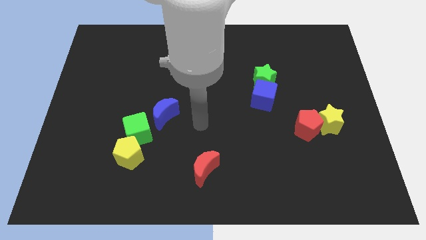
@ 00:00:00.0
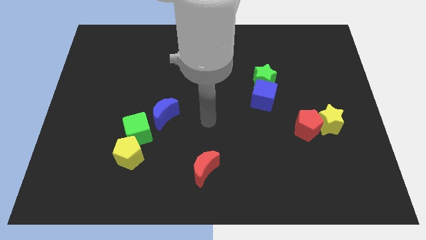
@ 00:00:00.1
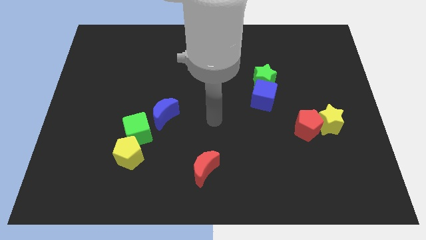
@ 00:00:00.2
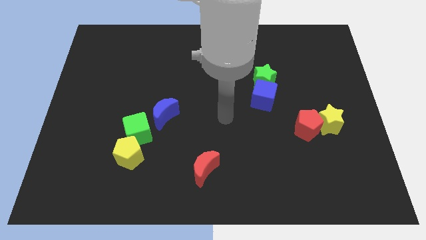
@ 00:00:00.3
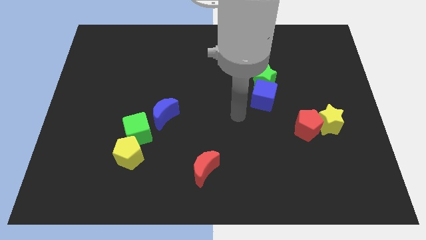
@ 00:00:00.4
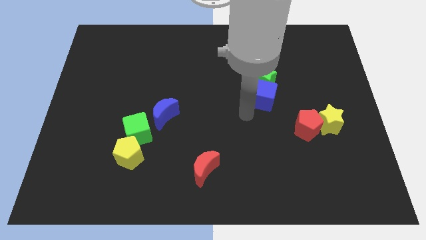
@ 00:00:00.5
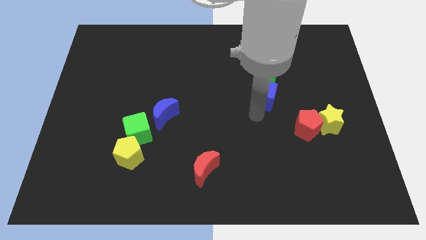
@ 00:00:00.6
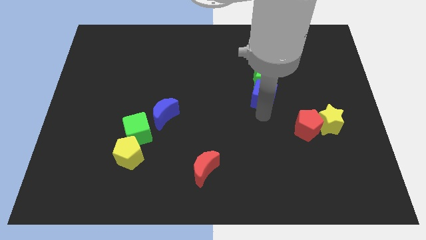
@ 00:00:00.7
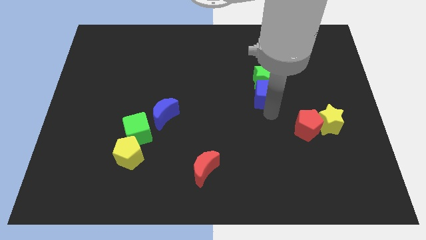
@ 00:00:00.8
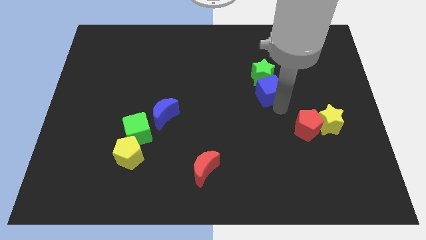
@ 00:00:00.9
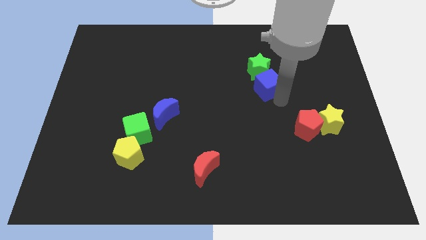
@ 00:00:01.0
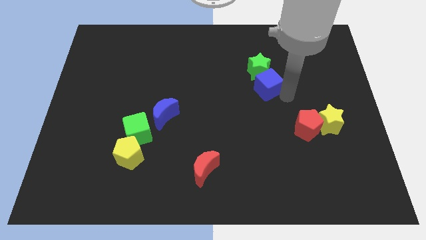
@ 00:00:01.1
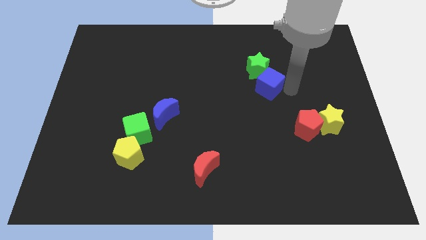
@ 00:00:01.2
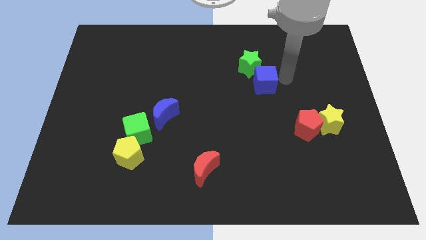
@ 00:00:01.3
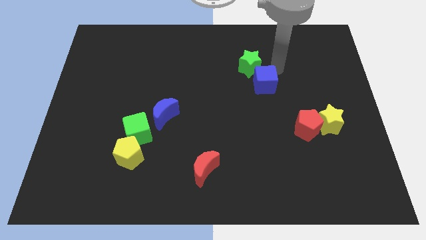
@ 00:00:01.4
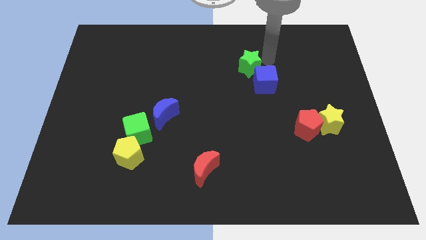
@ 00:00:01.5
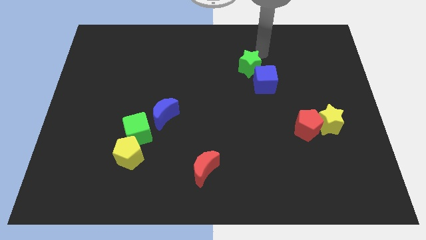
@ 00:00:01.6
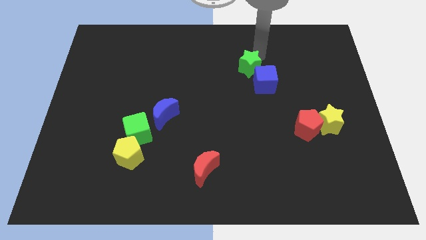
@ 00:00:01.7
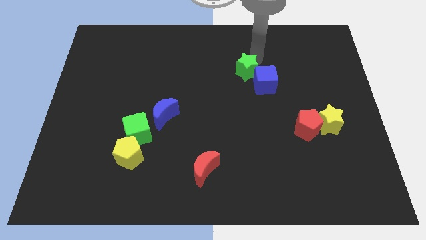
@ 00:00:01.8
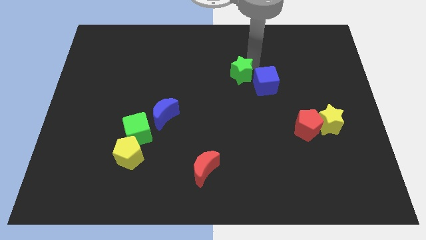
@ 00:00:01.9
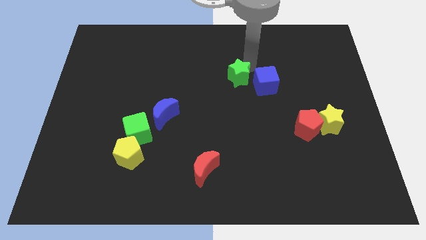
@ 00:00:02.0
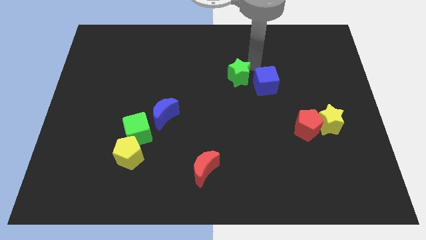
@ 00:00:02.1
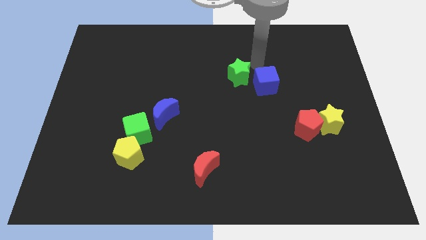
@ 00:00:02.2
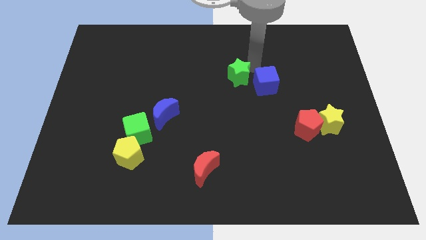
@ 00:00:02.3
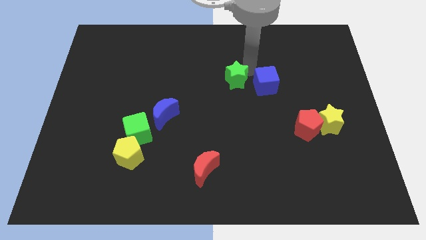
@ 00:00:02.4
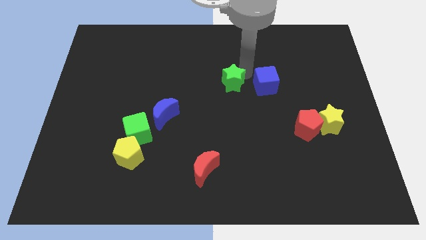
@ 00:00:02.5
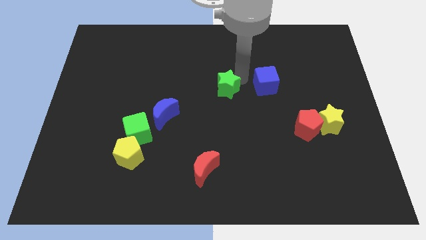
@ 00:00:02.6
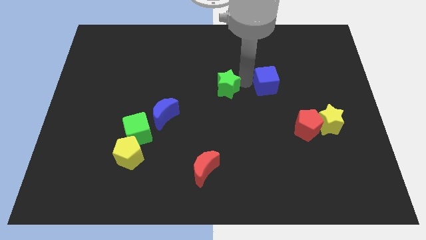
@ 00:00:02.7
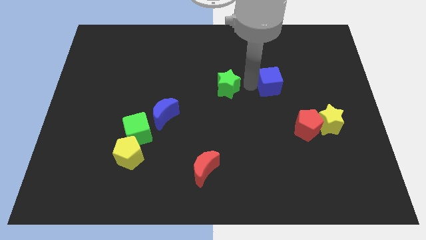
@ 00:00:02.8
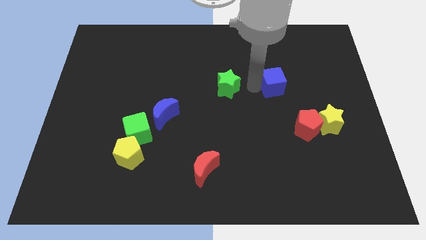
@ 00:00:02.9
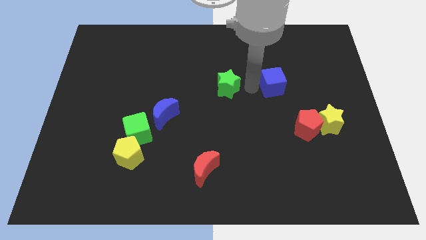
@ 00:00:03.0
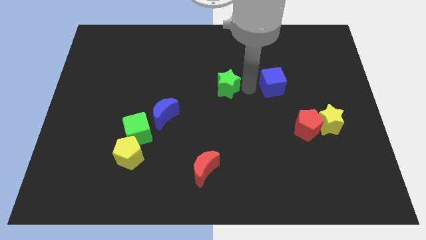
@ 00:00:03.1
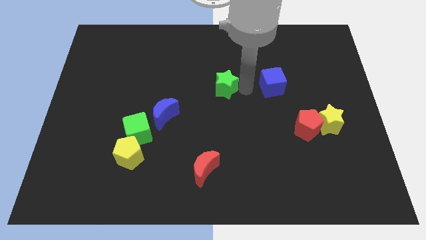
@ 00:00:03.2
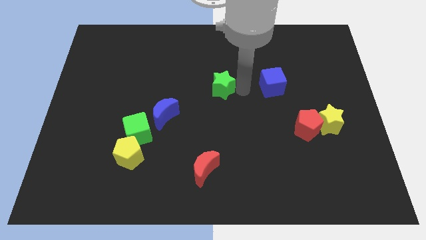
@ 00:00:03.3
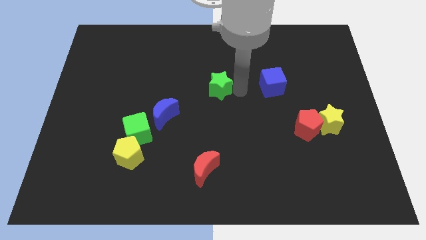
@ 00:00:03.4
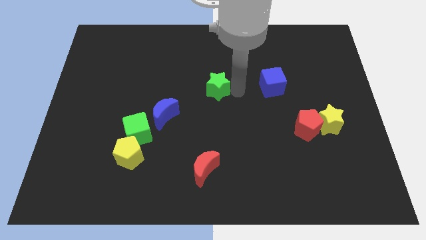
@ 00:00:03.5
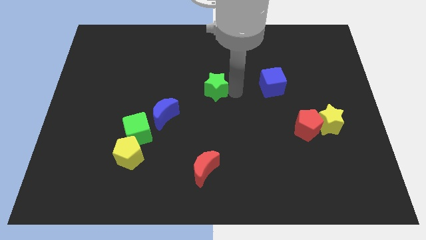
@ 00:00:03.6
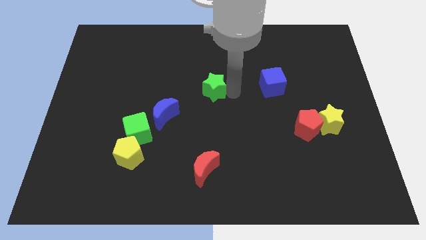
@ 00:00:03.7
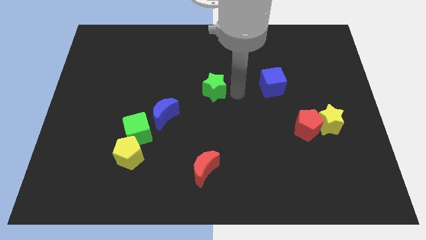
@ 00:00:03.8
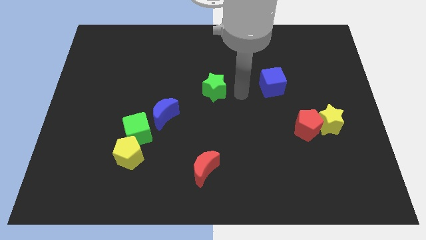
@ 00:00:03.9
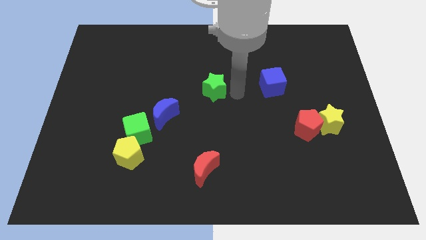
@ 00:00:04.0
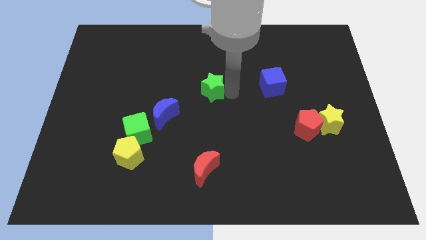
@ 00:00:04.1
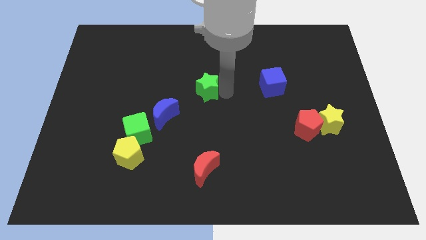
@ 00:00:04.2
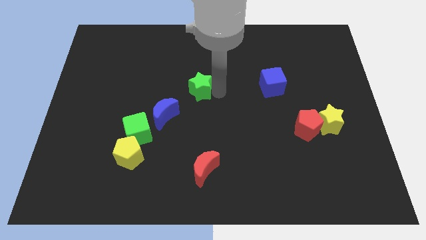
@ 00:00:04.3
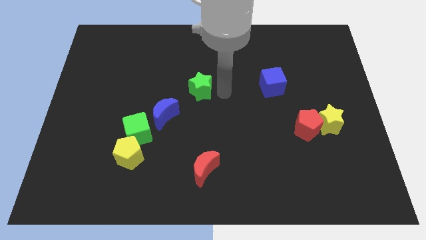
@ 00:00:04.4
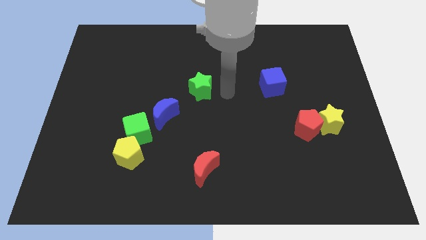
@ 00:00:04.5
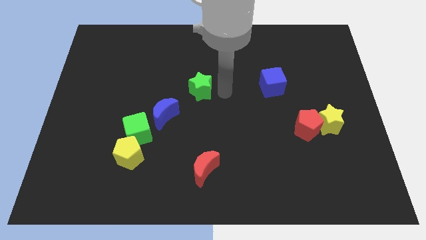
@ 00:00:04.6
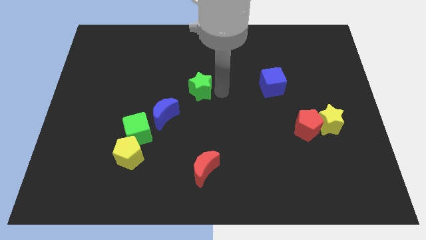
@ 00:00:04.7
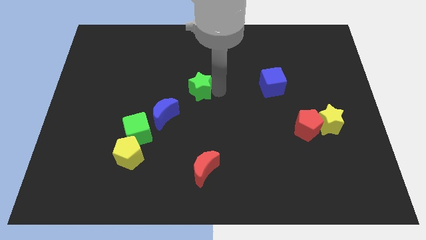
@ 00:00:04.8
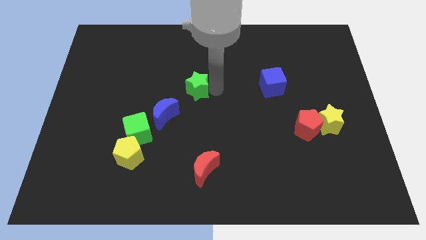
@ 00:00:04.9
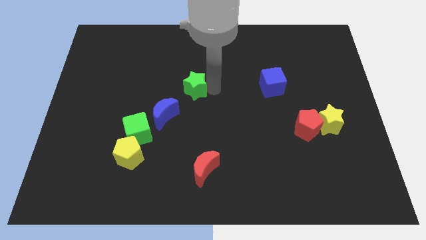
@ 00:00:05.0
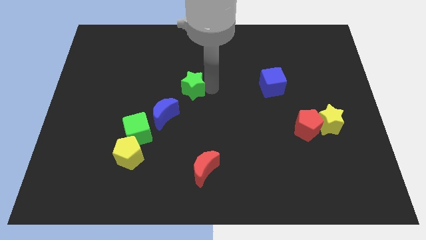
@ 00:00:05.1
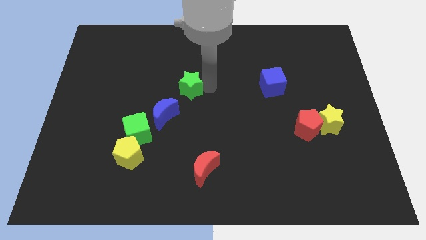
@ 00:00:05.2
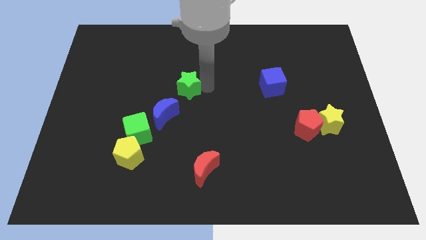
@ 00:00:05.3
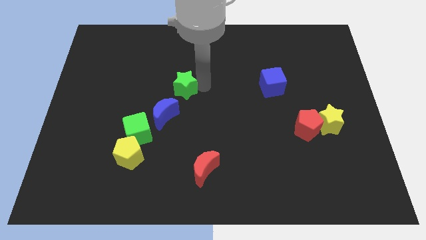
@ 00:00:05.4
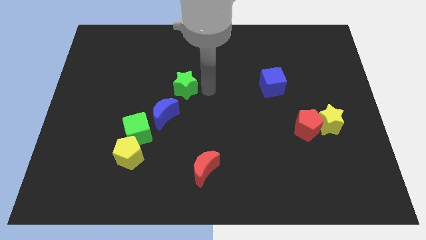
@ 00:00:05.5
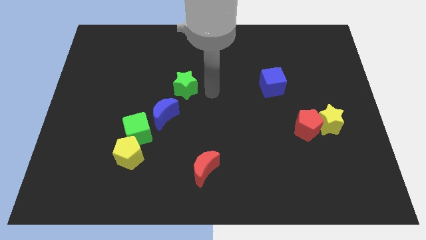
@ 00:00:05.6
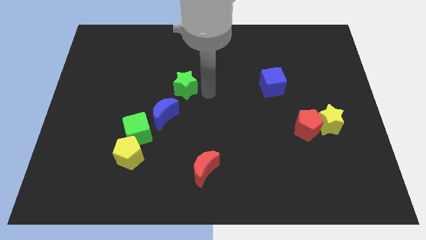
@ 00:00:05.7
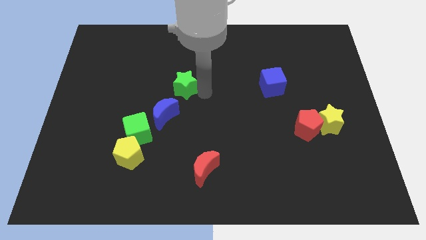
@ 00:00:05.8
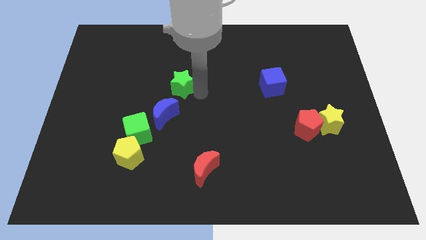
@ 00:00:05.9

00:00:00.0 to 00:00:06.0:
move the green star to the left

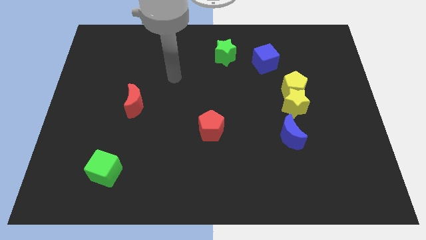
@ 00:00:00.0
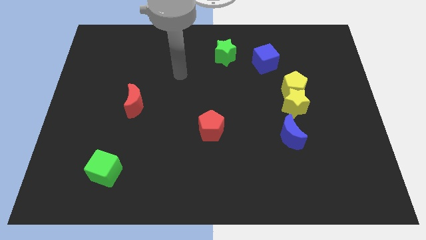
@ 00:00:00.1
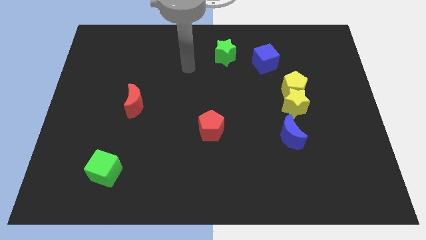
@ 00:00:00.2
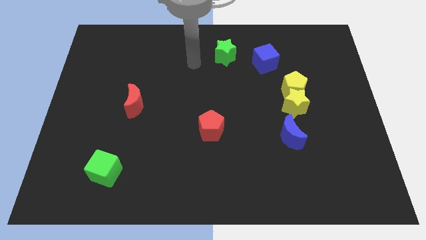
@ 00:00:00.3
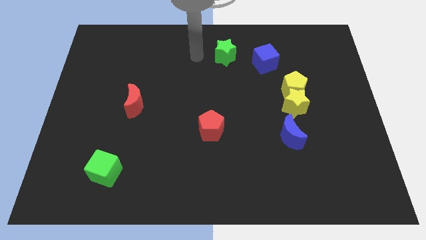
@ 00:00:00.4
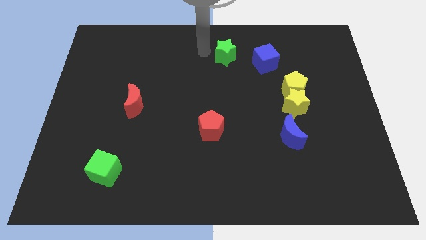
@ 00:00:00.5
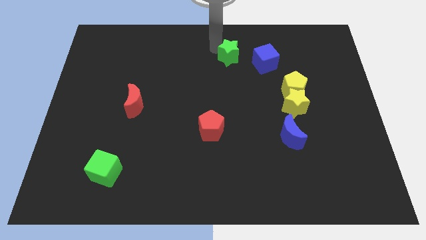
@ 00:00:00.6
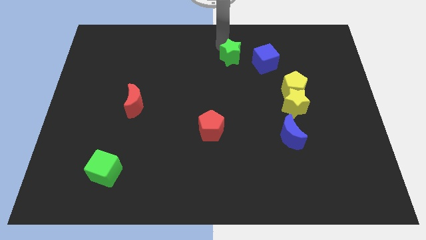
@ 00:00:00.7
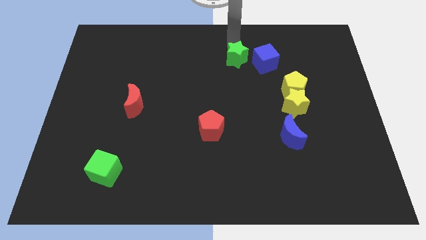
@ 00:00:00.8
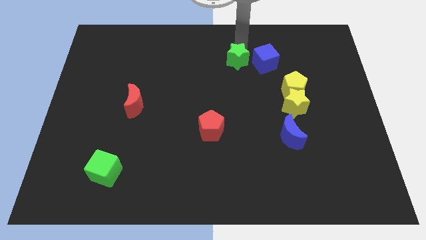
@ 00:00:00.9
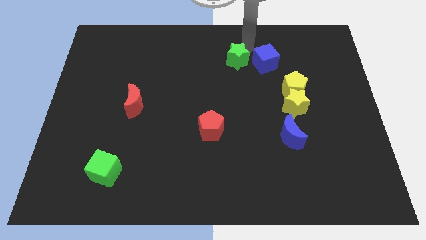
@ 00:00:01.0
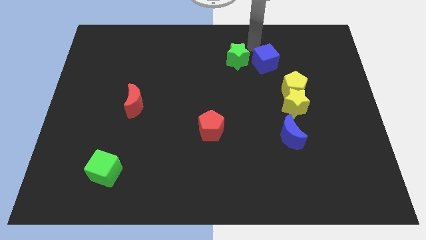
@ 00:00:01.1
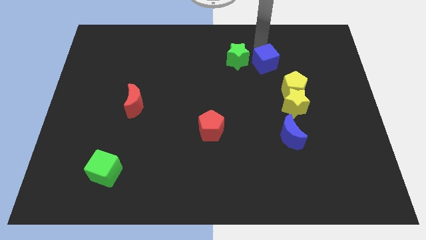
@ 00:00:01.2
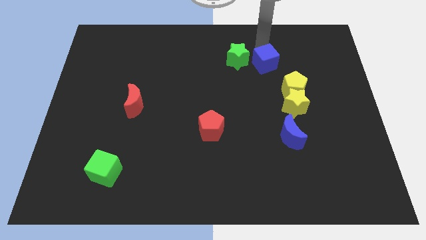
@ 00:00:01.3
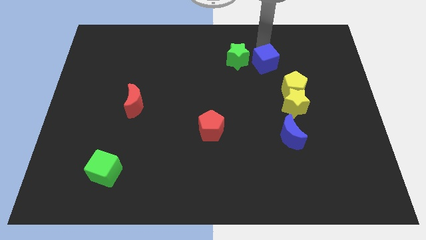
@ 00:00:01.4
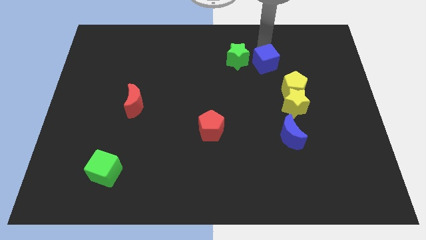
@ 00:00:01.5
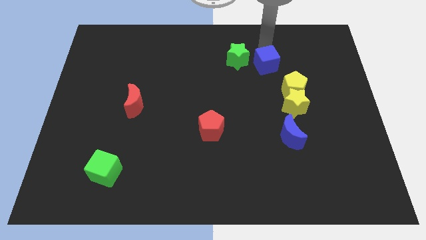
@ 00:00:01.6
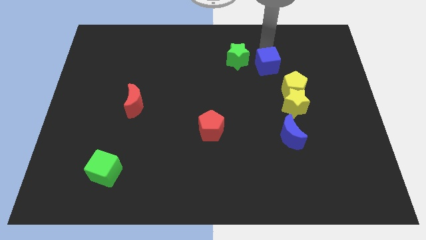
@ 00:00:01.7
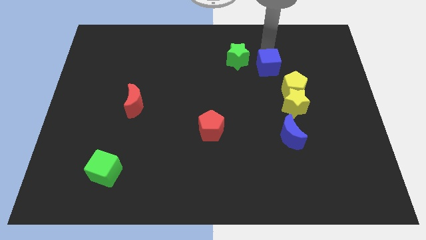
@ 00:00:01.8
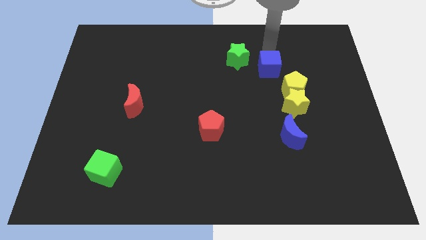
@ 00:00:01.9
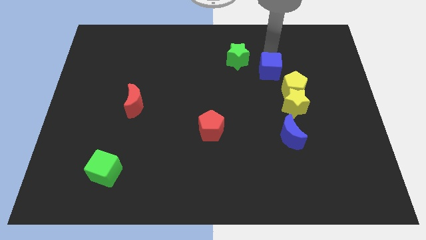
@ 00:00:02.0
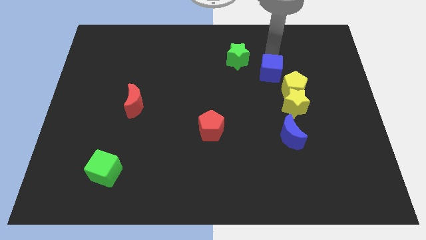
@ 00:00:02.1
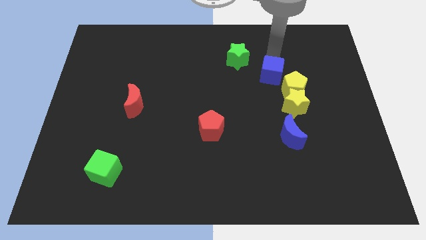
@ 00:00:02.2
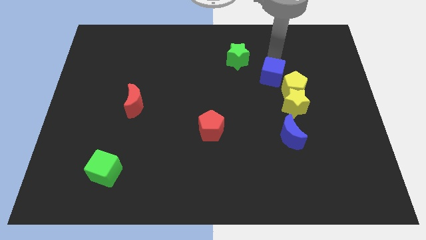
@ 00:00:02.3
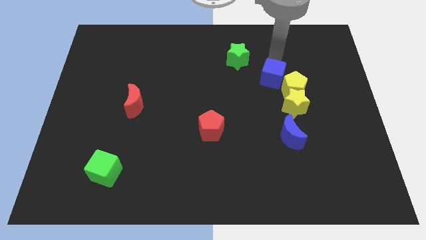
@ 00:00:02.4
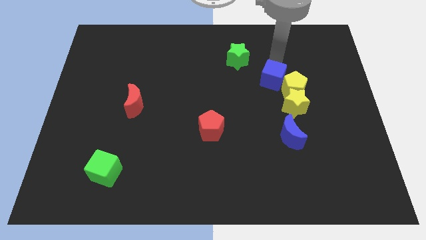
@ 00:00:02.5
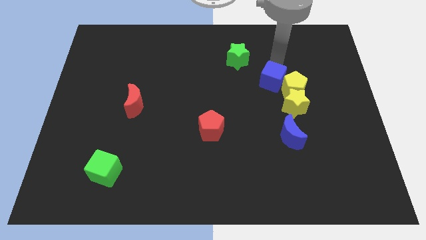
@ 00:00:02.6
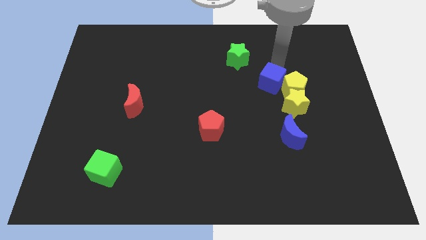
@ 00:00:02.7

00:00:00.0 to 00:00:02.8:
slide the blue cube downwards a little bit
